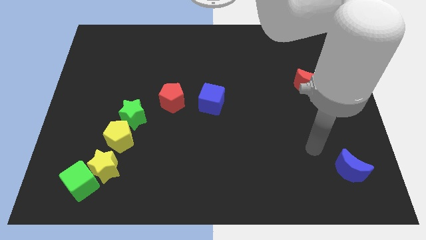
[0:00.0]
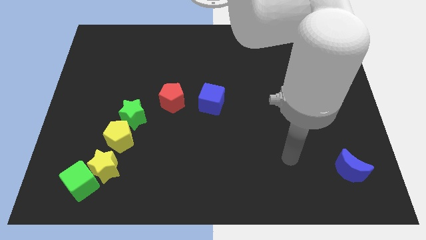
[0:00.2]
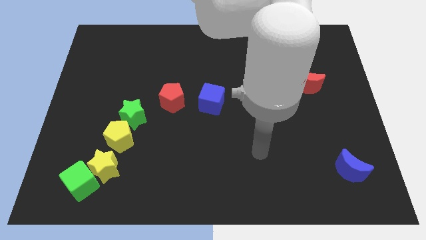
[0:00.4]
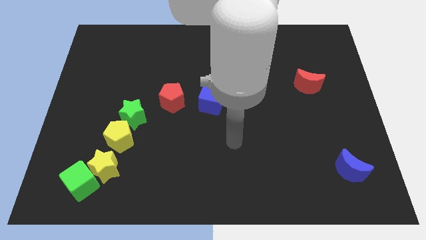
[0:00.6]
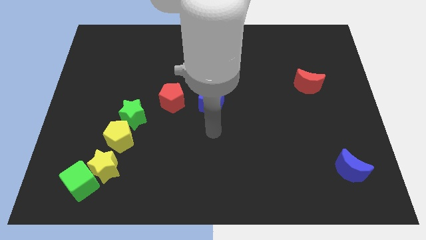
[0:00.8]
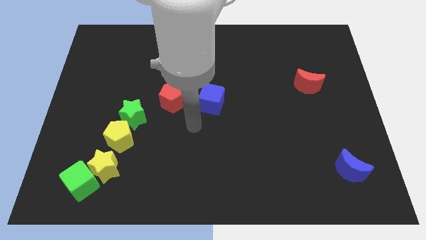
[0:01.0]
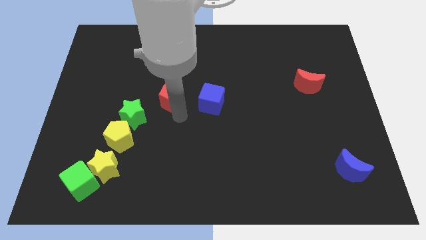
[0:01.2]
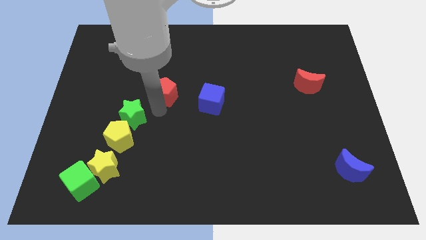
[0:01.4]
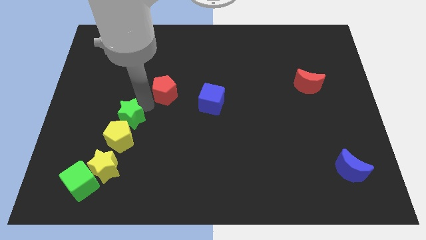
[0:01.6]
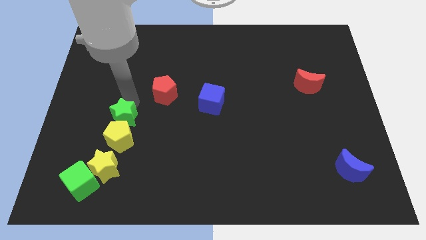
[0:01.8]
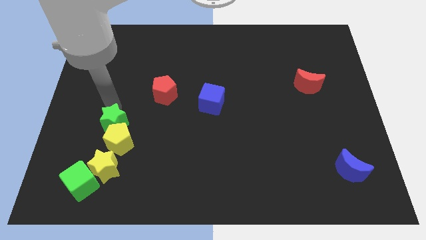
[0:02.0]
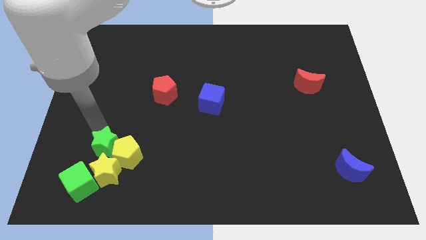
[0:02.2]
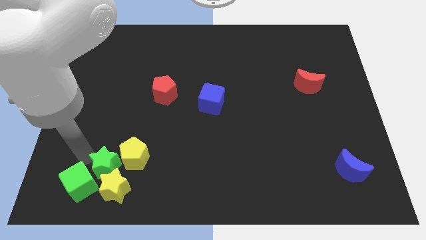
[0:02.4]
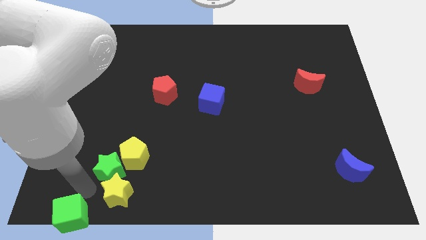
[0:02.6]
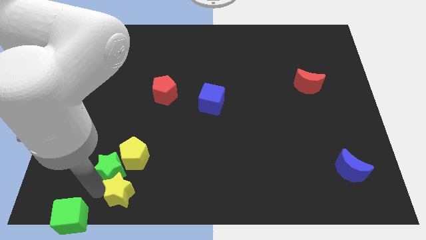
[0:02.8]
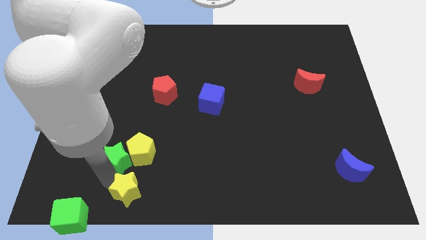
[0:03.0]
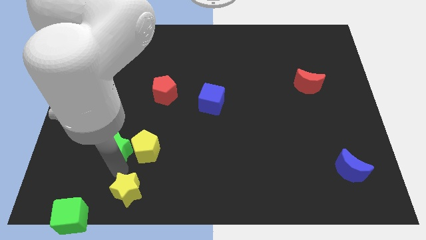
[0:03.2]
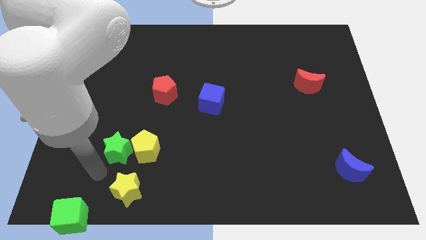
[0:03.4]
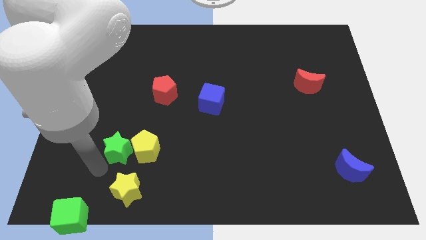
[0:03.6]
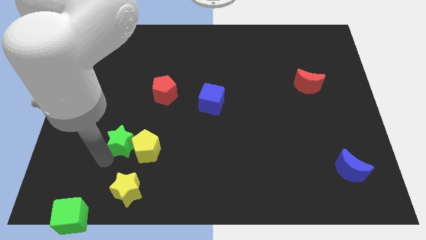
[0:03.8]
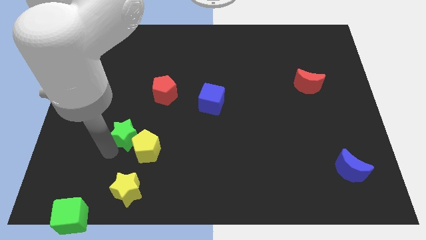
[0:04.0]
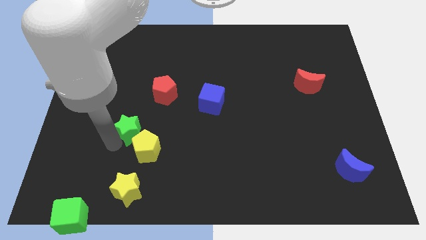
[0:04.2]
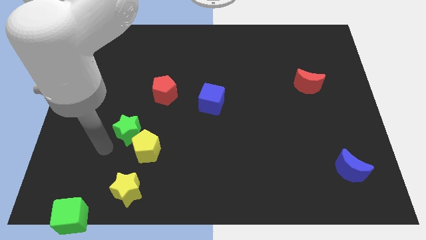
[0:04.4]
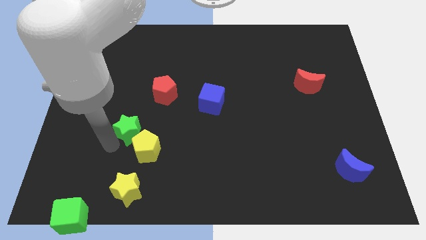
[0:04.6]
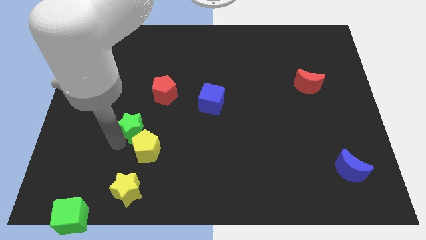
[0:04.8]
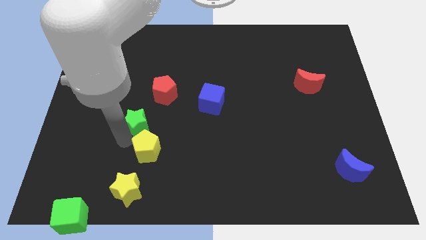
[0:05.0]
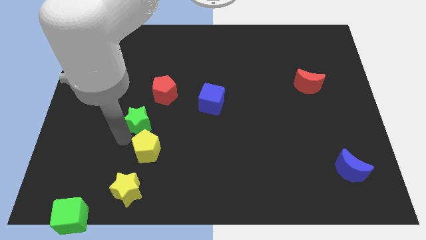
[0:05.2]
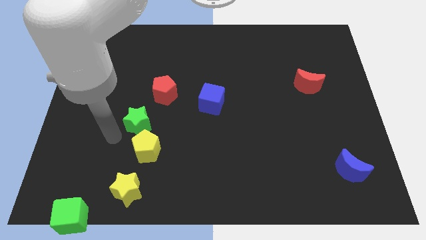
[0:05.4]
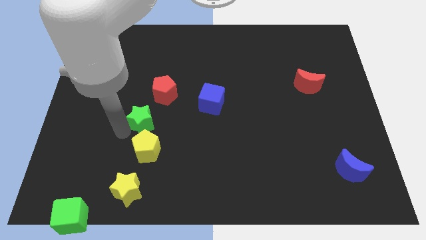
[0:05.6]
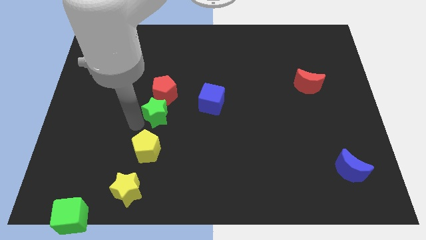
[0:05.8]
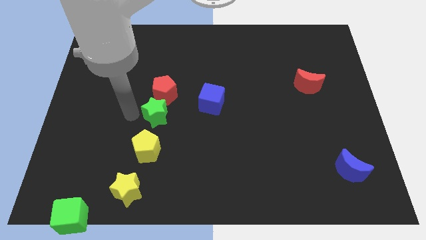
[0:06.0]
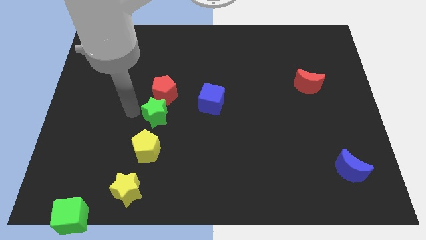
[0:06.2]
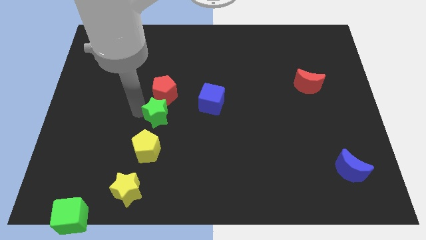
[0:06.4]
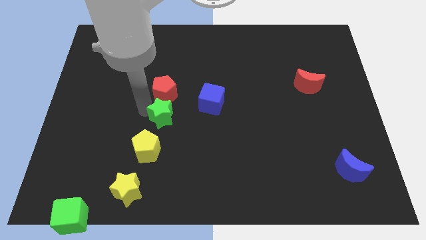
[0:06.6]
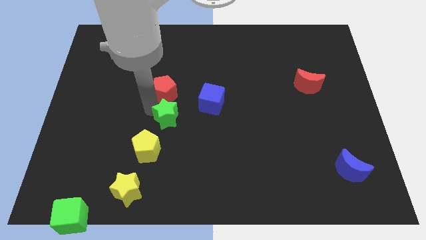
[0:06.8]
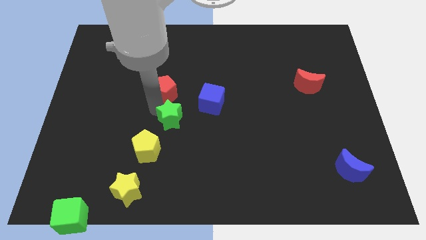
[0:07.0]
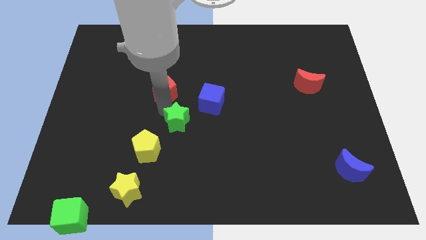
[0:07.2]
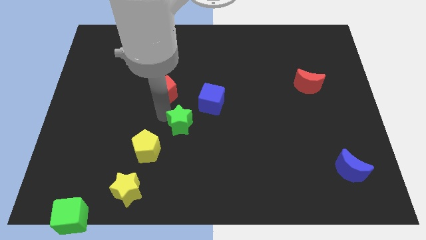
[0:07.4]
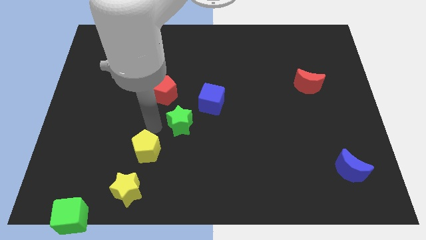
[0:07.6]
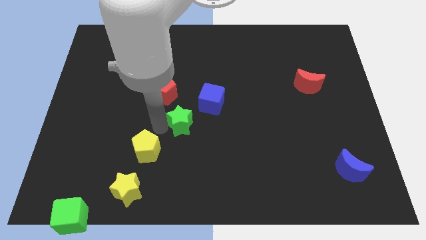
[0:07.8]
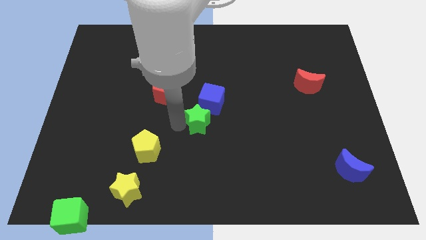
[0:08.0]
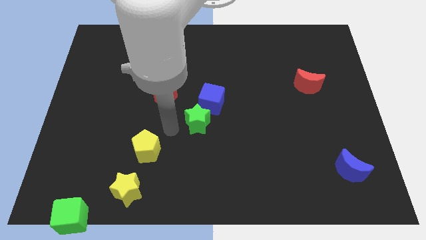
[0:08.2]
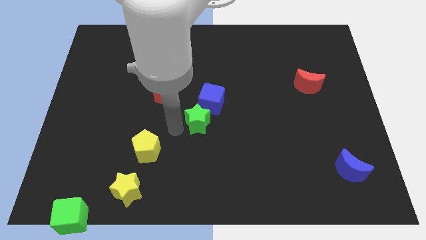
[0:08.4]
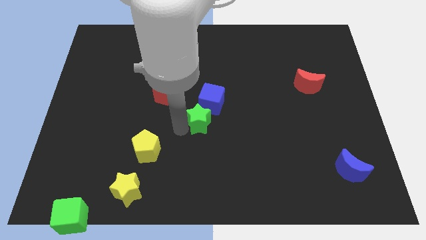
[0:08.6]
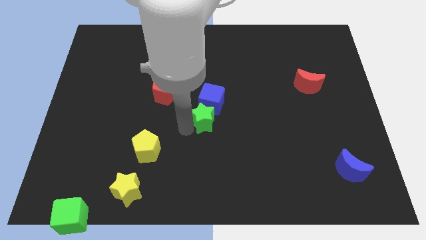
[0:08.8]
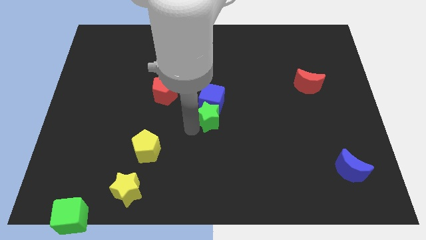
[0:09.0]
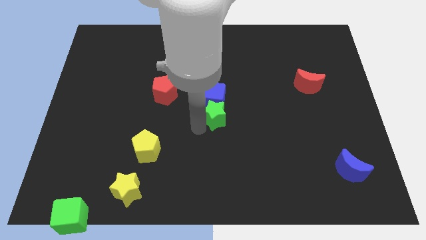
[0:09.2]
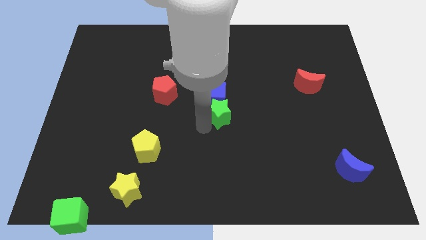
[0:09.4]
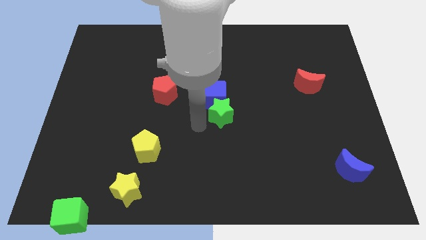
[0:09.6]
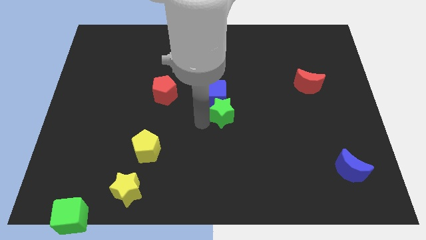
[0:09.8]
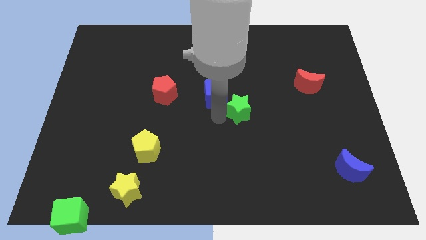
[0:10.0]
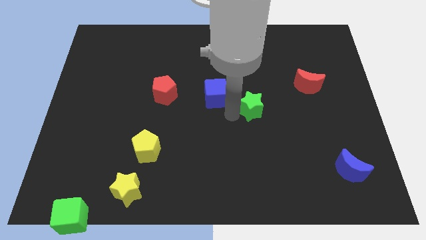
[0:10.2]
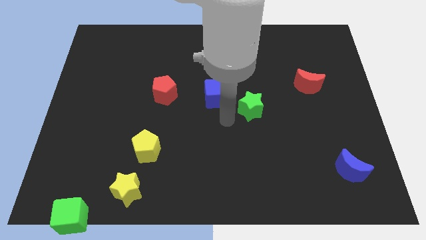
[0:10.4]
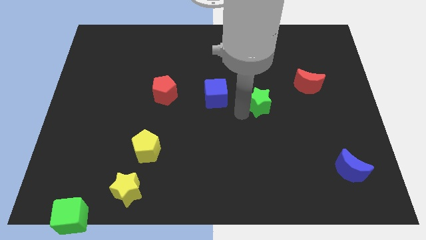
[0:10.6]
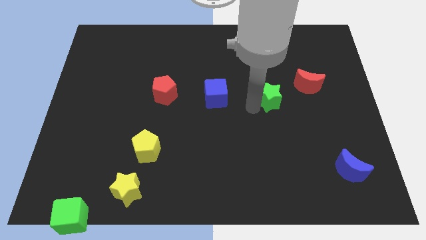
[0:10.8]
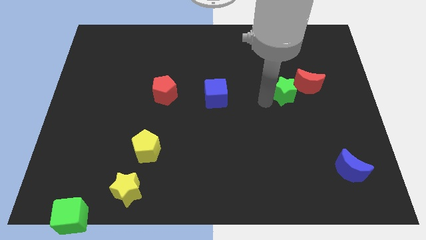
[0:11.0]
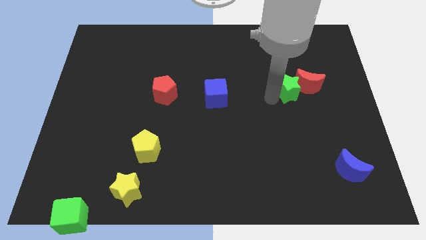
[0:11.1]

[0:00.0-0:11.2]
put the green star towards the red moon

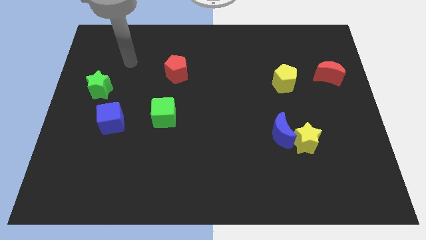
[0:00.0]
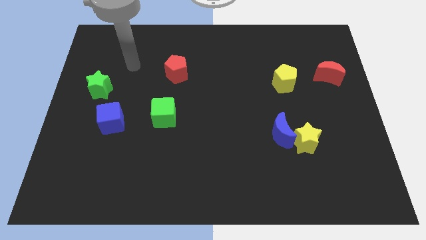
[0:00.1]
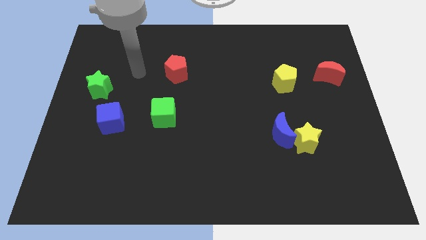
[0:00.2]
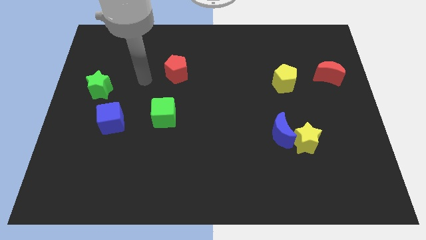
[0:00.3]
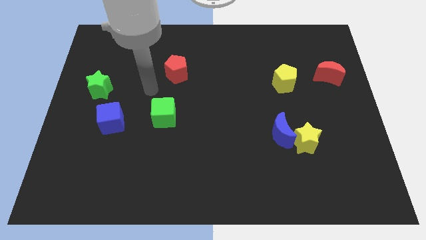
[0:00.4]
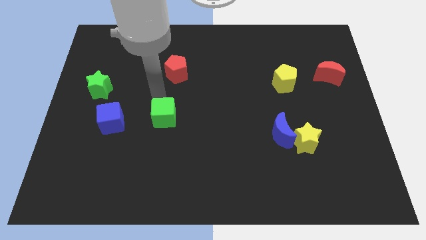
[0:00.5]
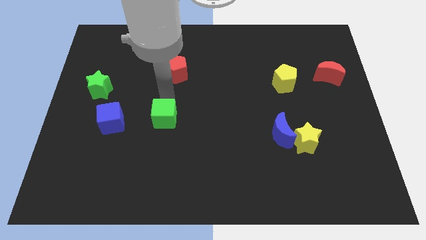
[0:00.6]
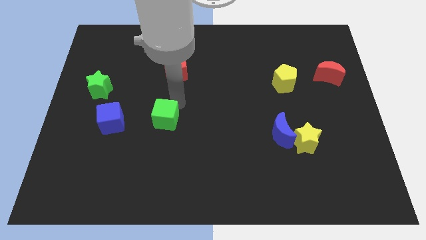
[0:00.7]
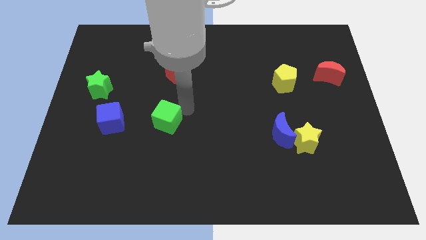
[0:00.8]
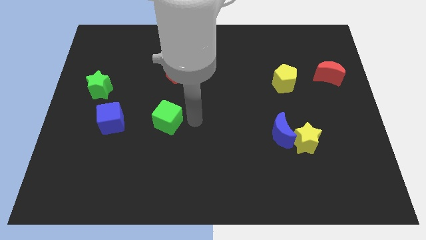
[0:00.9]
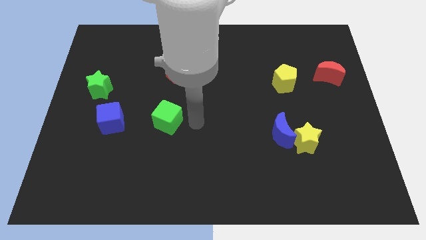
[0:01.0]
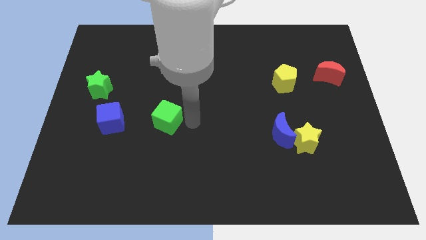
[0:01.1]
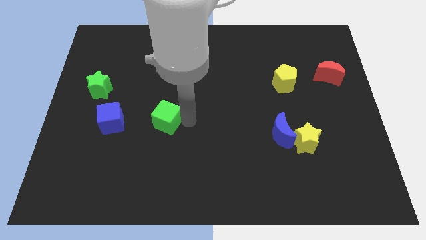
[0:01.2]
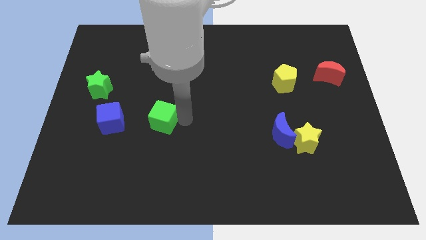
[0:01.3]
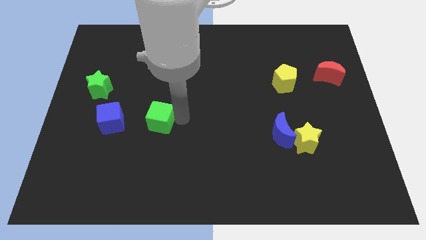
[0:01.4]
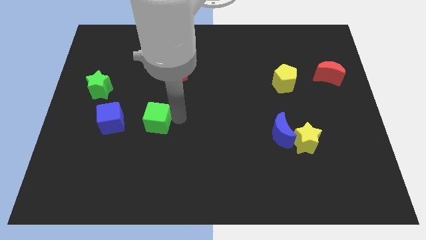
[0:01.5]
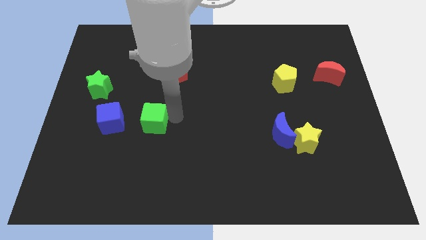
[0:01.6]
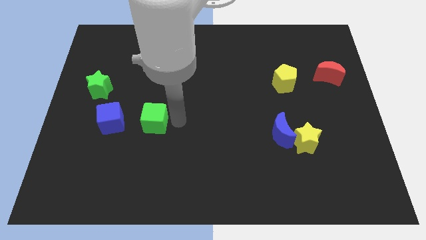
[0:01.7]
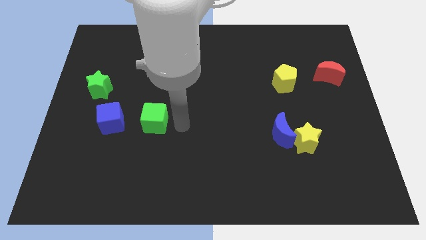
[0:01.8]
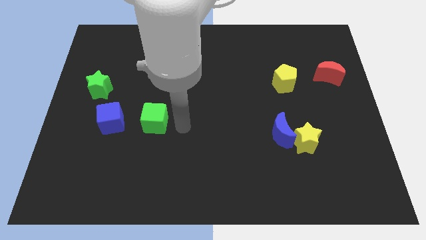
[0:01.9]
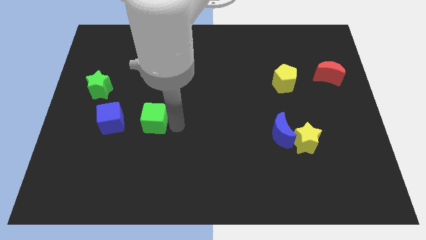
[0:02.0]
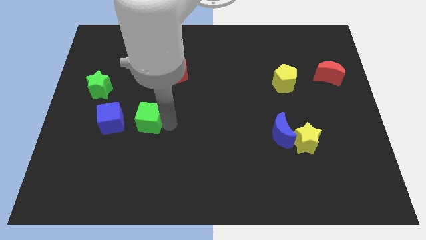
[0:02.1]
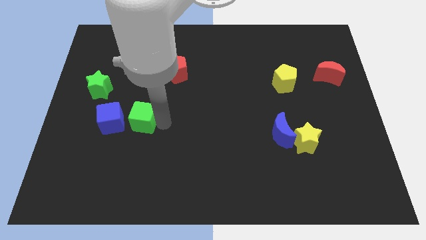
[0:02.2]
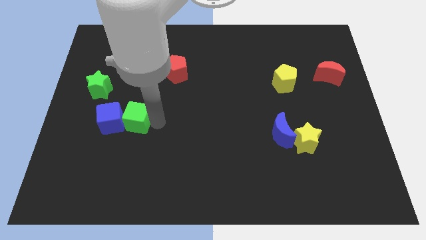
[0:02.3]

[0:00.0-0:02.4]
put the green cube to the blue cube
